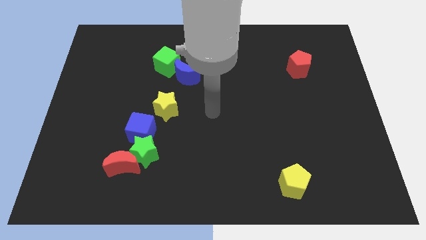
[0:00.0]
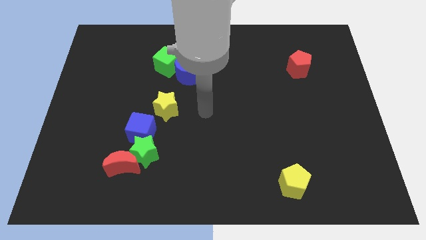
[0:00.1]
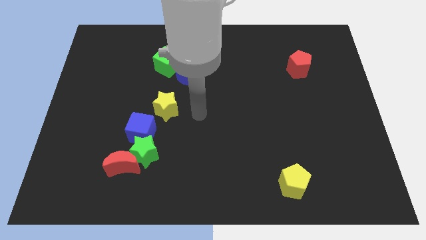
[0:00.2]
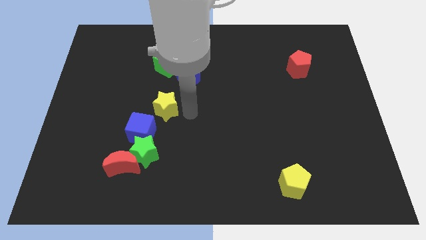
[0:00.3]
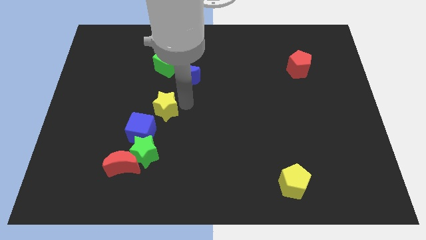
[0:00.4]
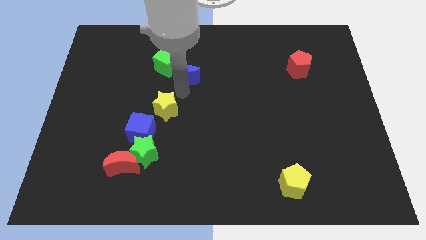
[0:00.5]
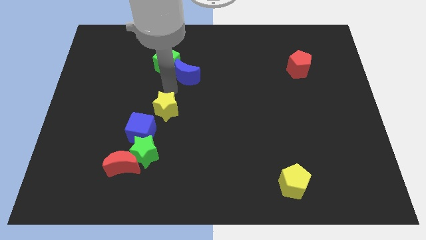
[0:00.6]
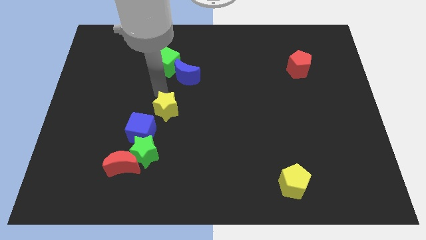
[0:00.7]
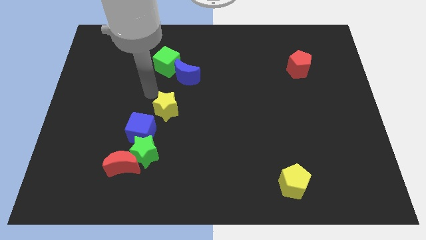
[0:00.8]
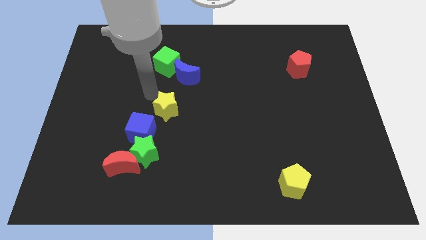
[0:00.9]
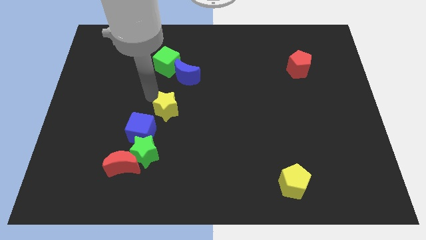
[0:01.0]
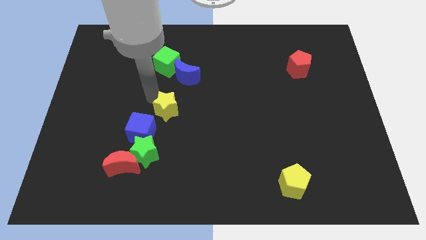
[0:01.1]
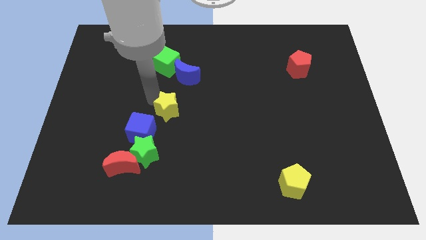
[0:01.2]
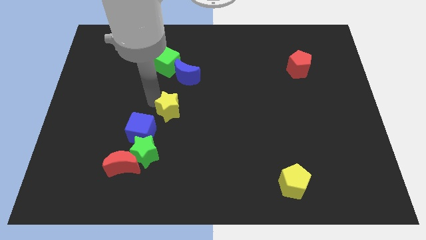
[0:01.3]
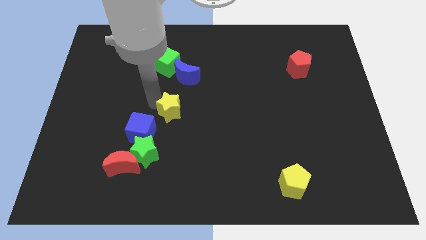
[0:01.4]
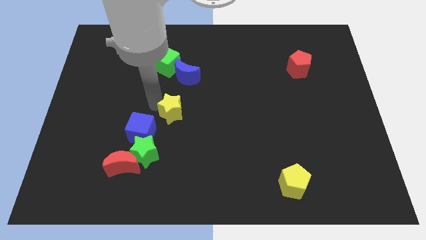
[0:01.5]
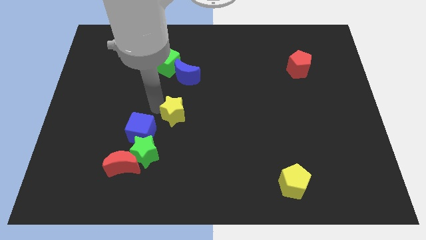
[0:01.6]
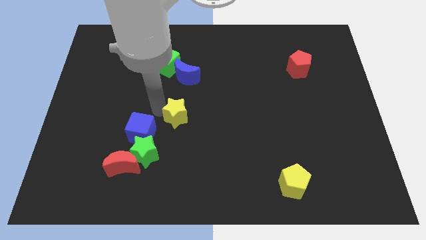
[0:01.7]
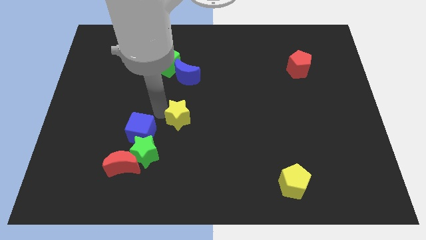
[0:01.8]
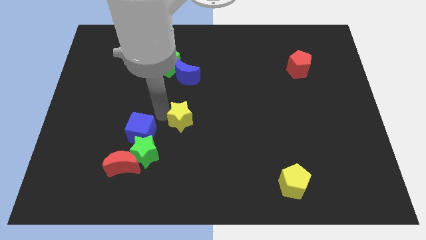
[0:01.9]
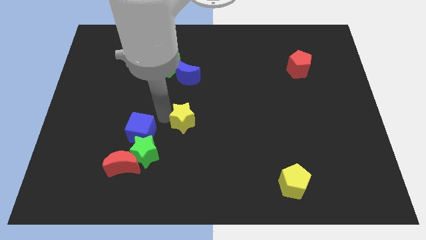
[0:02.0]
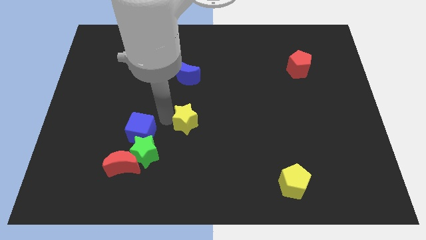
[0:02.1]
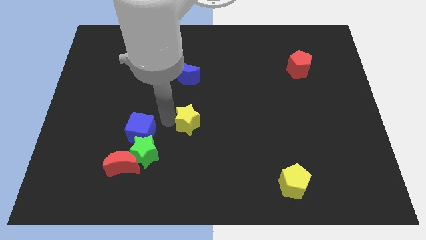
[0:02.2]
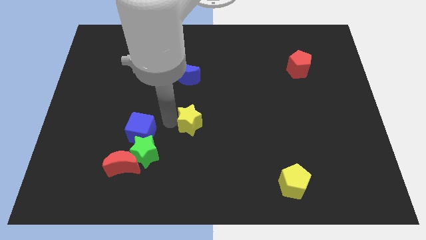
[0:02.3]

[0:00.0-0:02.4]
slightly slide the yellow star downwards and right

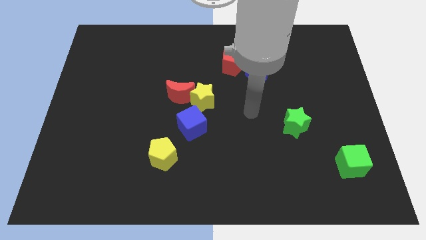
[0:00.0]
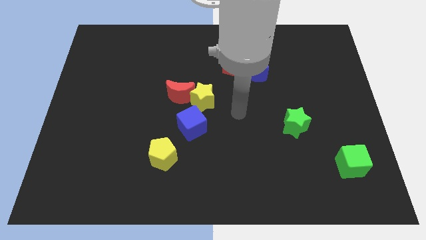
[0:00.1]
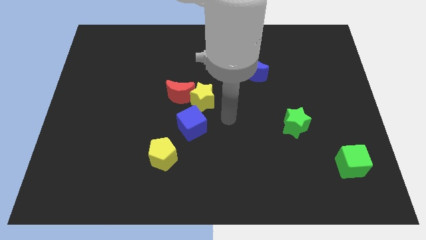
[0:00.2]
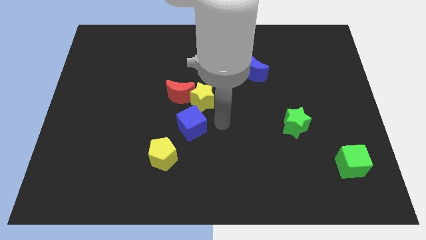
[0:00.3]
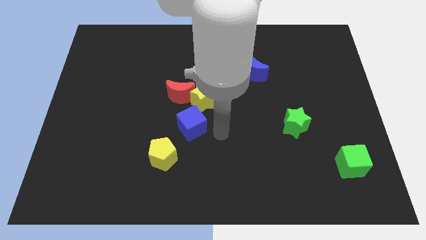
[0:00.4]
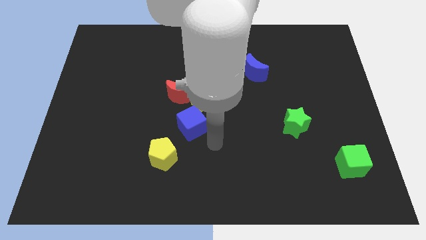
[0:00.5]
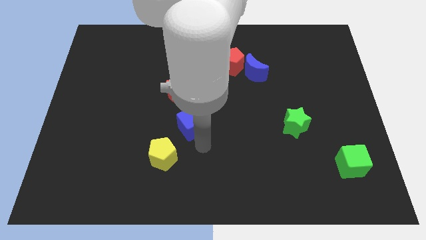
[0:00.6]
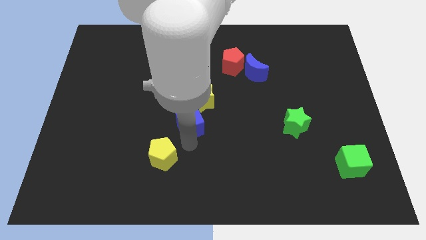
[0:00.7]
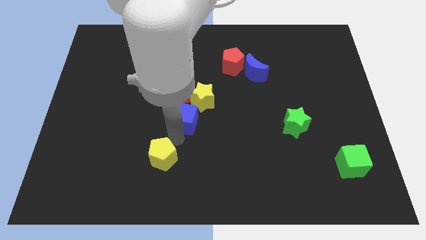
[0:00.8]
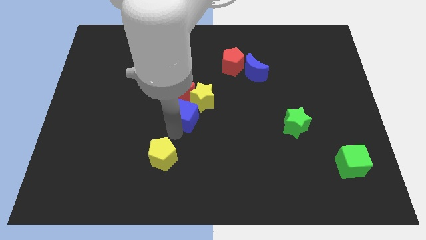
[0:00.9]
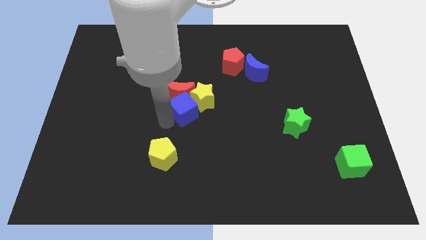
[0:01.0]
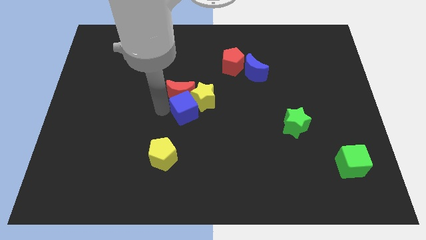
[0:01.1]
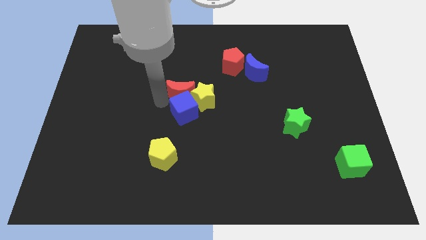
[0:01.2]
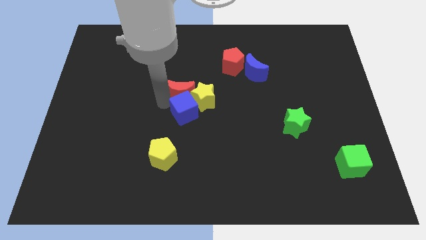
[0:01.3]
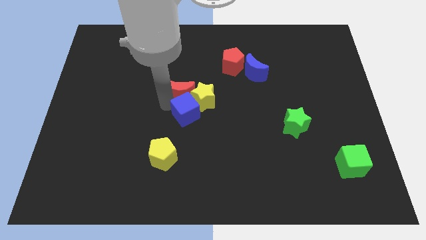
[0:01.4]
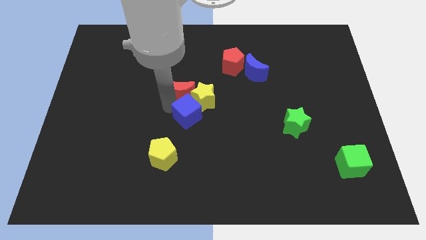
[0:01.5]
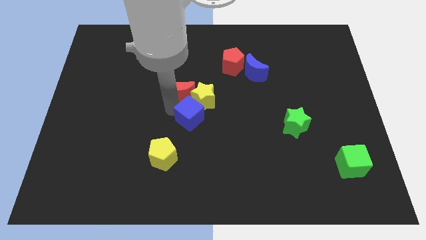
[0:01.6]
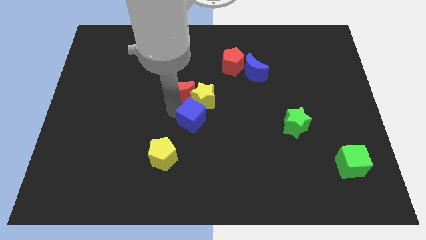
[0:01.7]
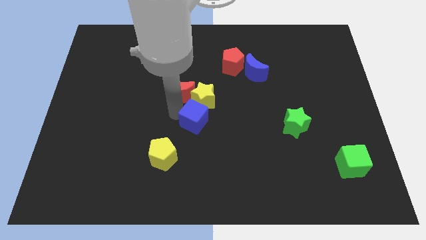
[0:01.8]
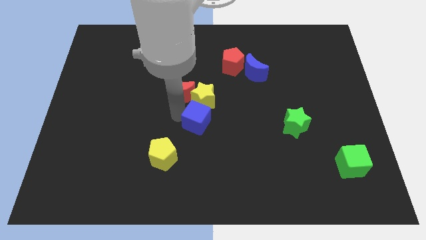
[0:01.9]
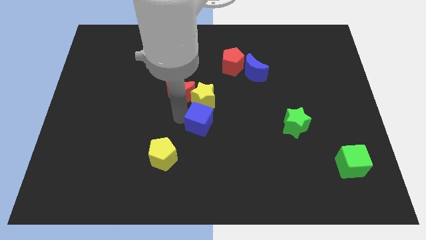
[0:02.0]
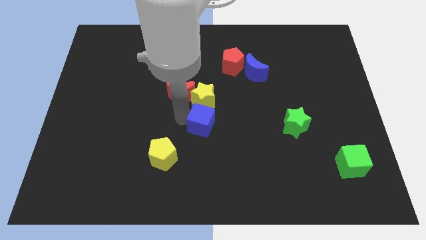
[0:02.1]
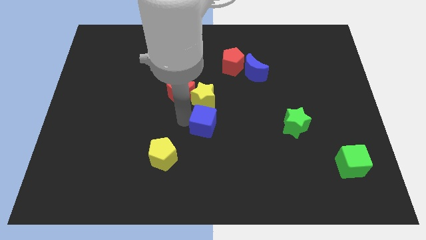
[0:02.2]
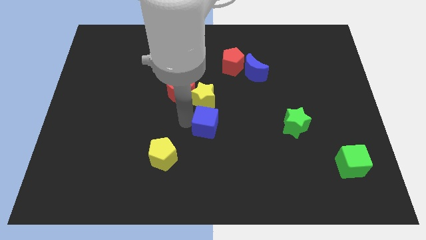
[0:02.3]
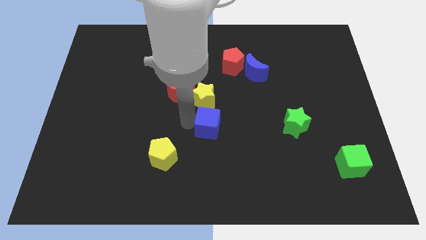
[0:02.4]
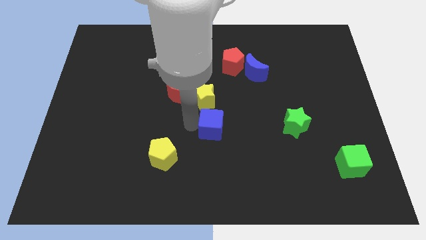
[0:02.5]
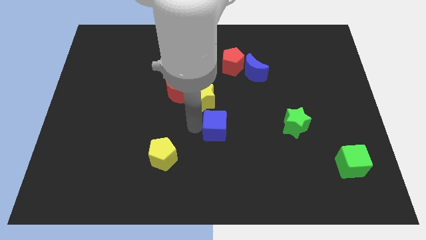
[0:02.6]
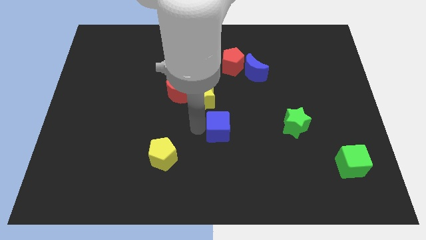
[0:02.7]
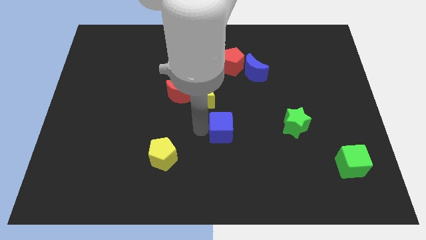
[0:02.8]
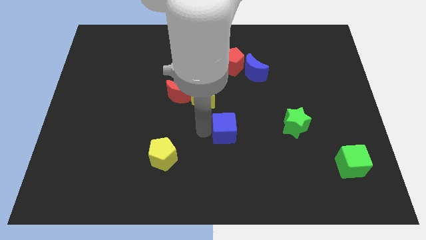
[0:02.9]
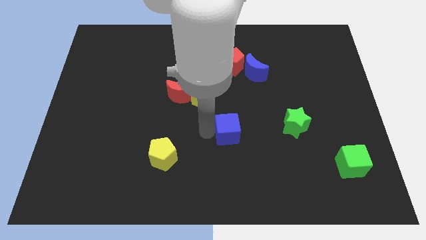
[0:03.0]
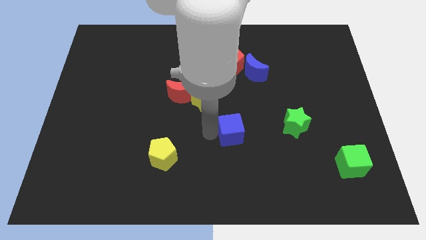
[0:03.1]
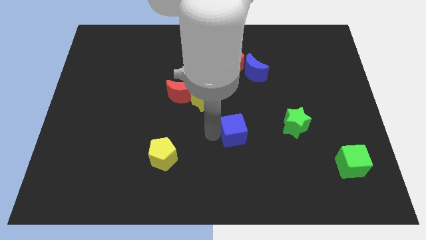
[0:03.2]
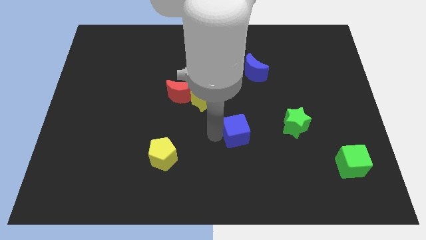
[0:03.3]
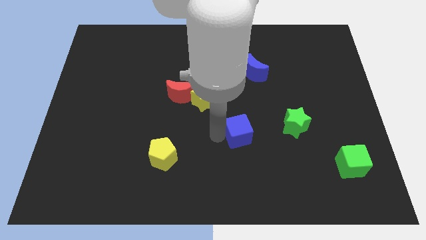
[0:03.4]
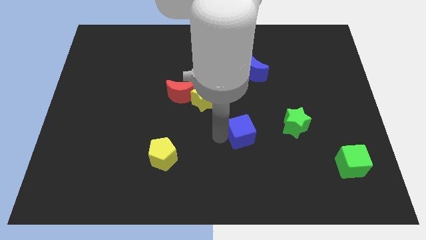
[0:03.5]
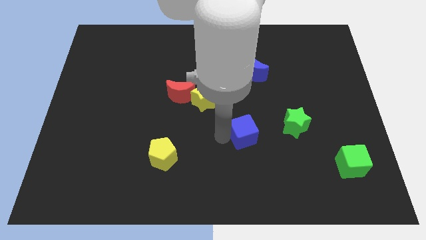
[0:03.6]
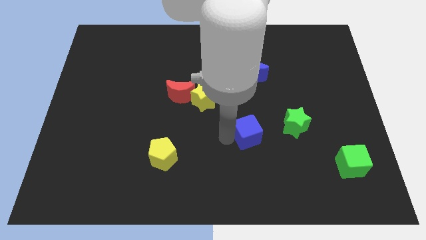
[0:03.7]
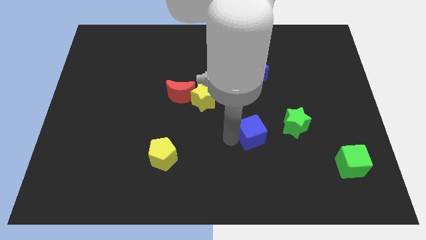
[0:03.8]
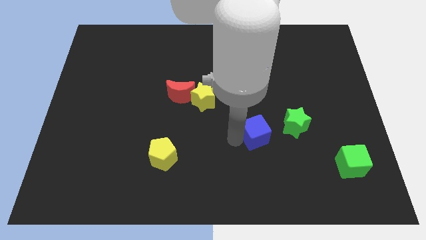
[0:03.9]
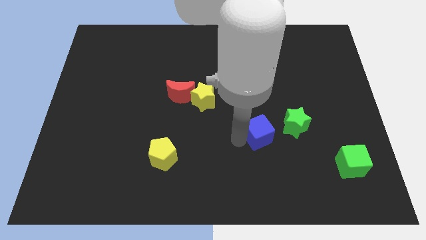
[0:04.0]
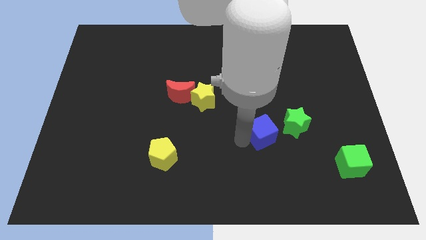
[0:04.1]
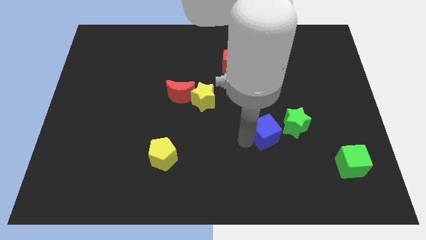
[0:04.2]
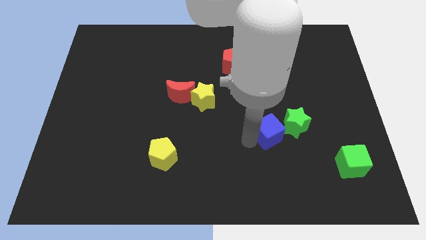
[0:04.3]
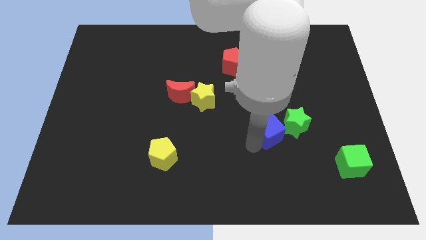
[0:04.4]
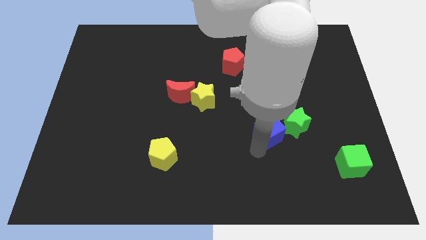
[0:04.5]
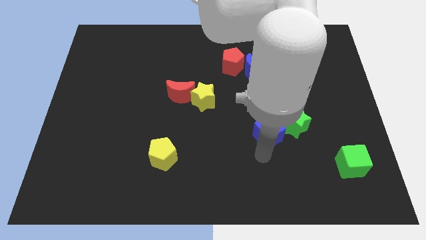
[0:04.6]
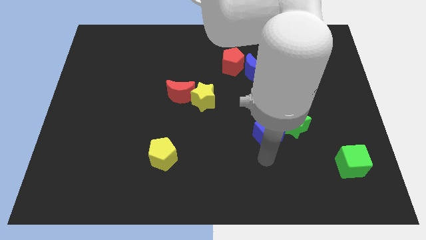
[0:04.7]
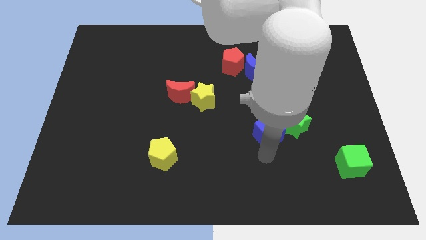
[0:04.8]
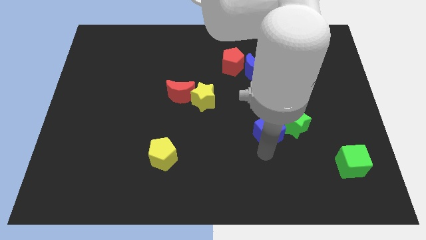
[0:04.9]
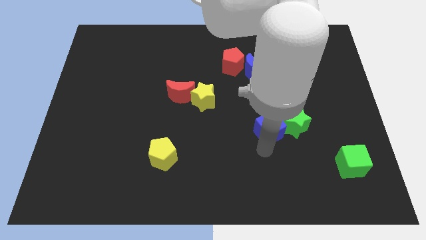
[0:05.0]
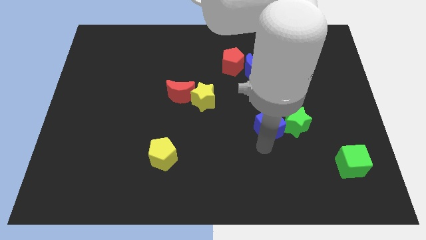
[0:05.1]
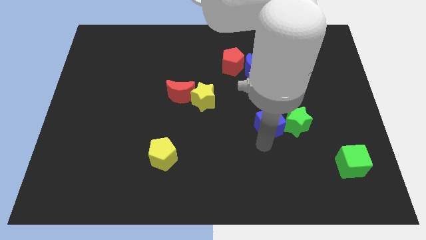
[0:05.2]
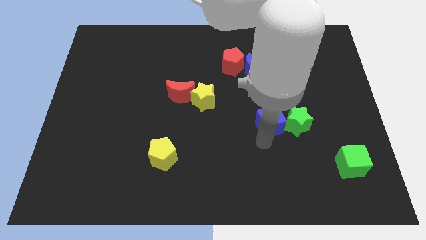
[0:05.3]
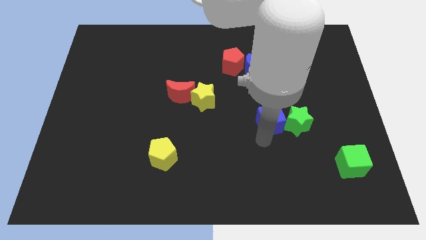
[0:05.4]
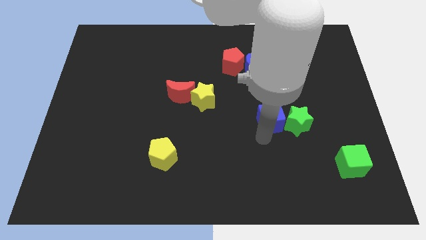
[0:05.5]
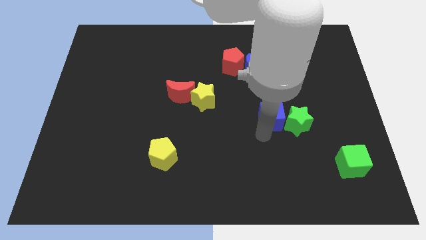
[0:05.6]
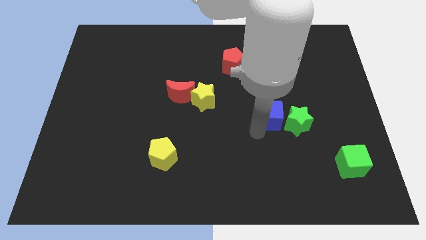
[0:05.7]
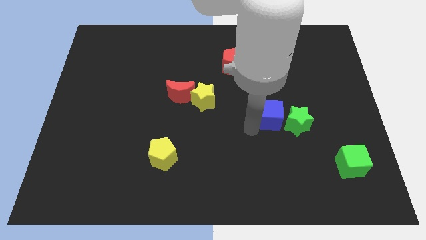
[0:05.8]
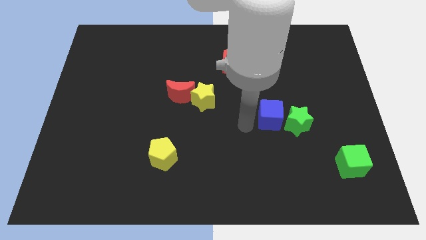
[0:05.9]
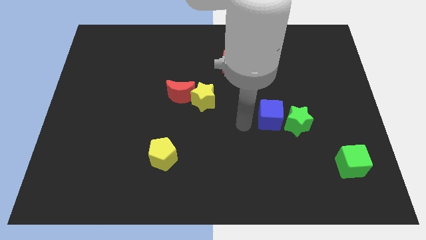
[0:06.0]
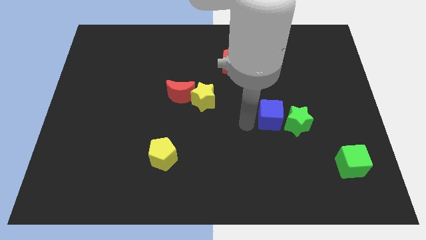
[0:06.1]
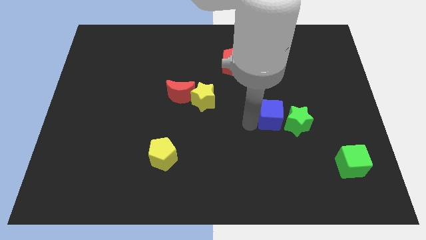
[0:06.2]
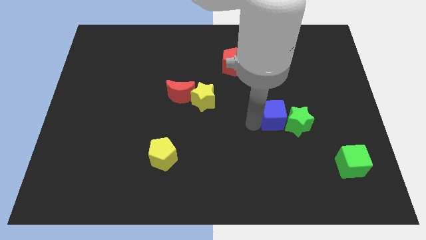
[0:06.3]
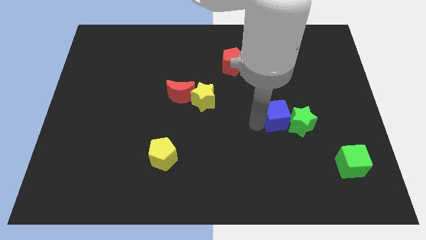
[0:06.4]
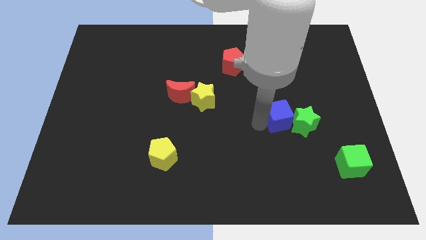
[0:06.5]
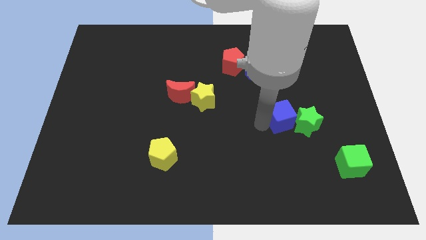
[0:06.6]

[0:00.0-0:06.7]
push the blue cube right
